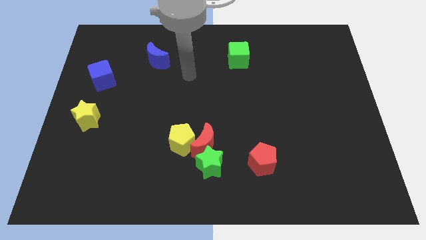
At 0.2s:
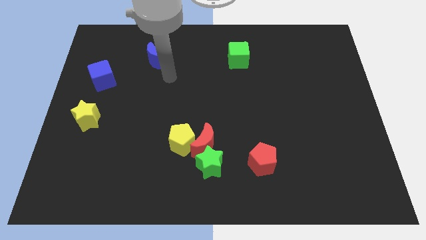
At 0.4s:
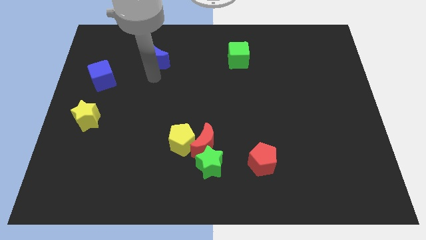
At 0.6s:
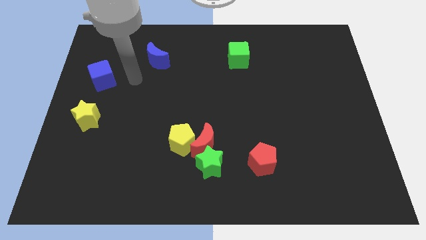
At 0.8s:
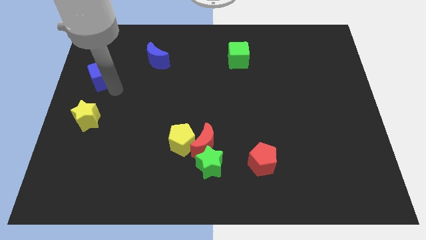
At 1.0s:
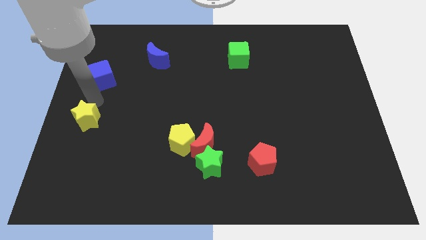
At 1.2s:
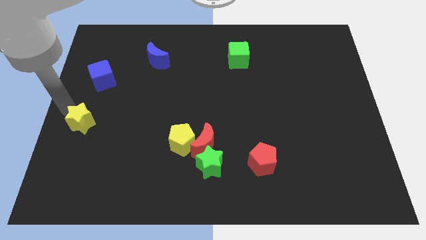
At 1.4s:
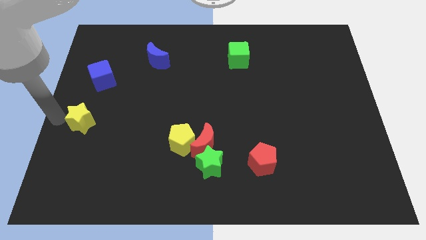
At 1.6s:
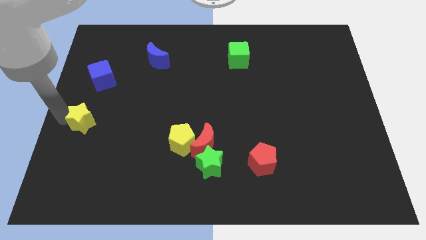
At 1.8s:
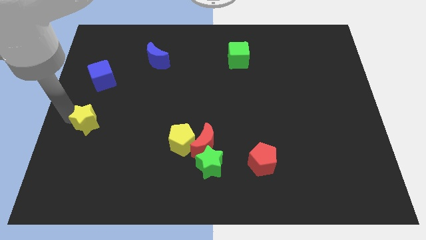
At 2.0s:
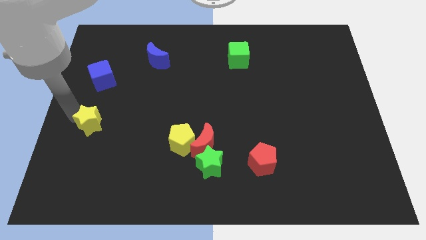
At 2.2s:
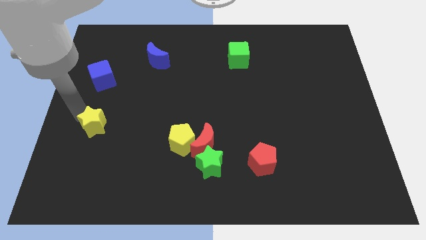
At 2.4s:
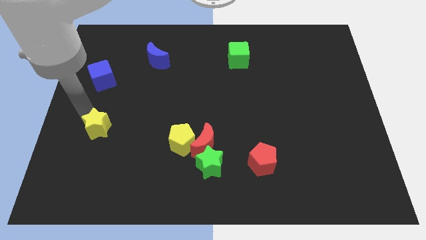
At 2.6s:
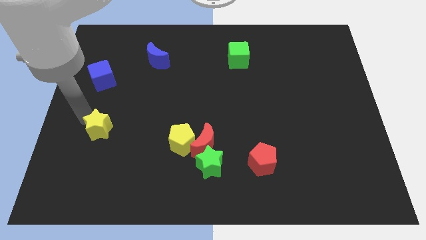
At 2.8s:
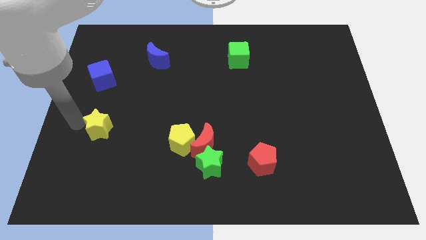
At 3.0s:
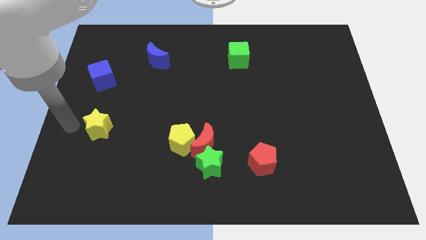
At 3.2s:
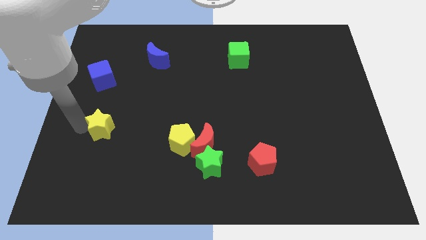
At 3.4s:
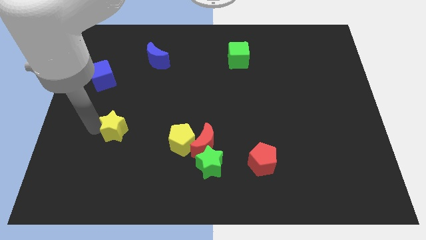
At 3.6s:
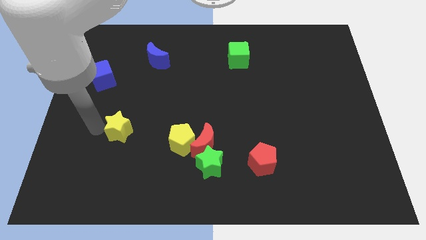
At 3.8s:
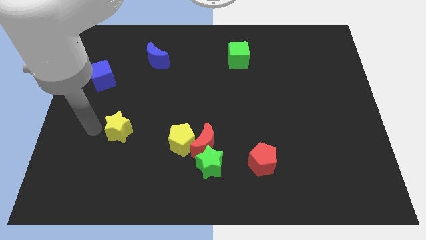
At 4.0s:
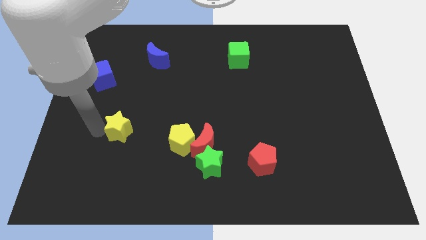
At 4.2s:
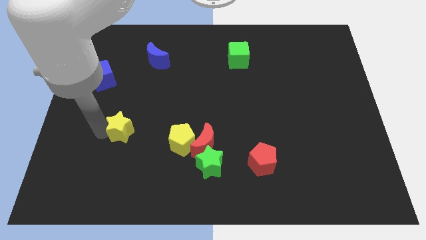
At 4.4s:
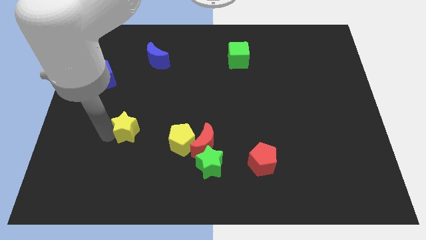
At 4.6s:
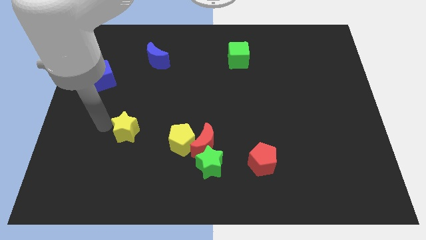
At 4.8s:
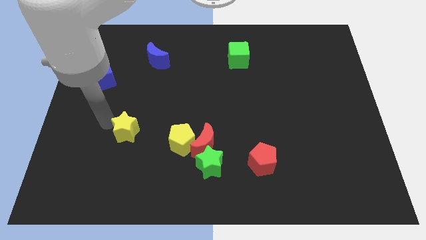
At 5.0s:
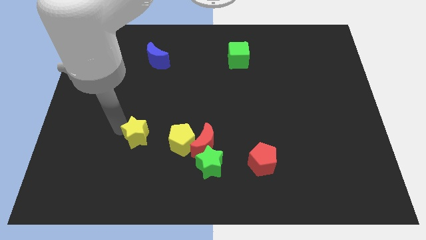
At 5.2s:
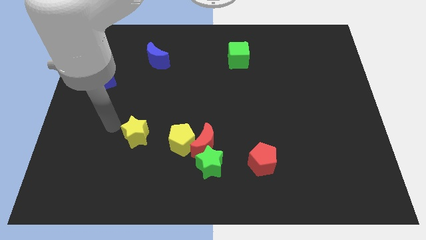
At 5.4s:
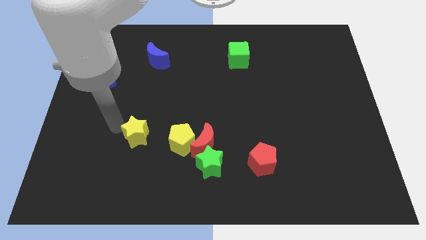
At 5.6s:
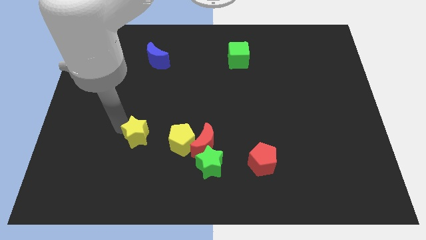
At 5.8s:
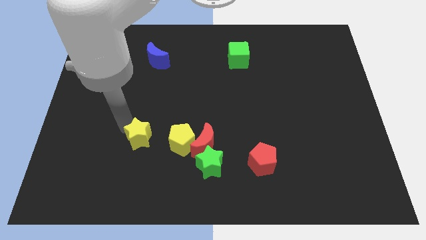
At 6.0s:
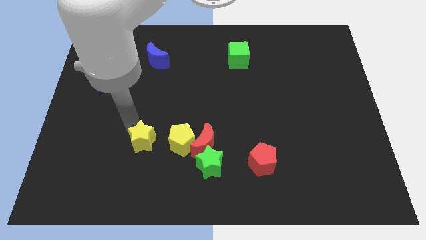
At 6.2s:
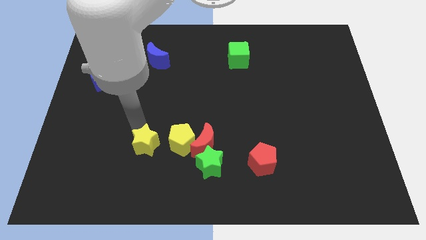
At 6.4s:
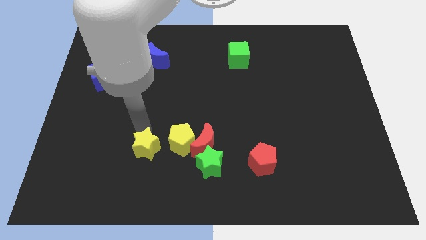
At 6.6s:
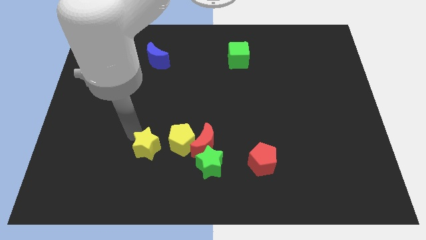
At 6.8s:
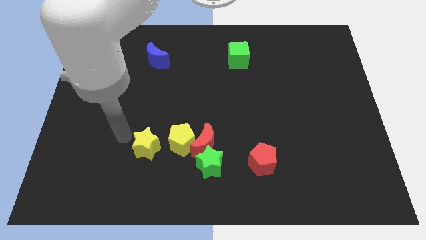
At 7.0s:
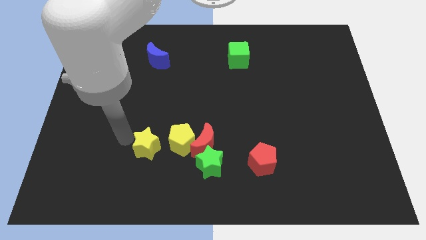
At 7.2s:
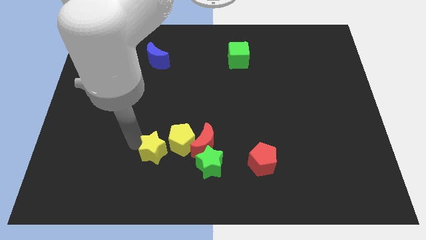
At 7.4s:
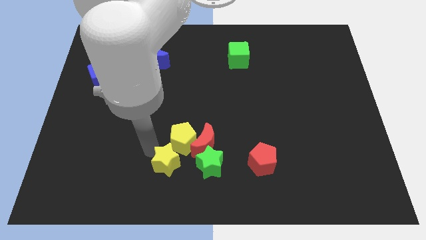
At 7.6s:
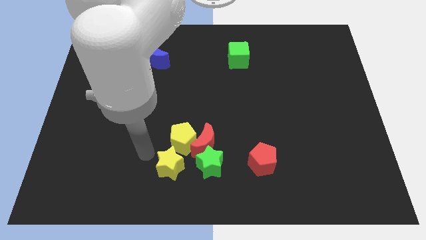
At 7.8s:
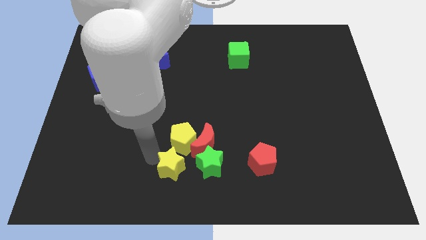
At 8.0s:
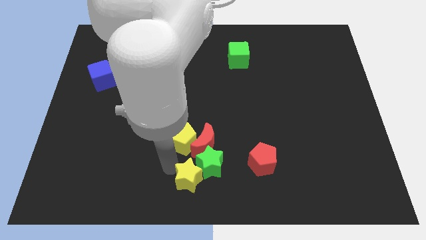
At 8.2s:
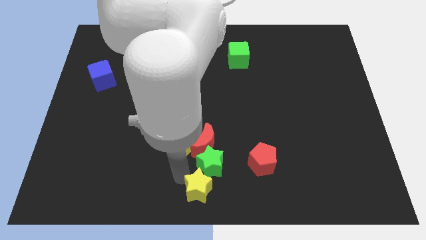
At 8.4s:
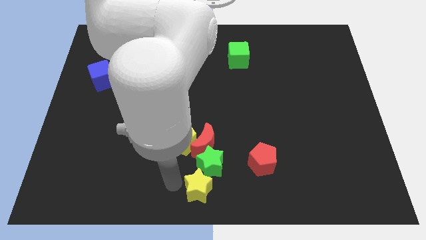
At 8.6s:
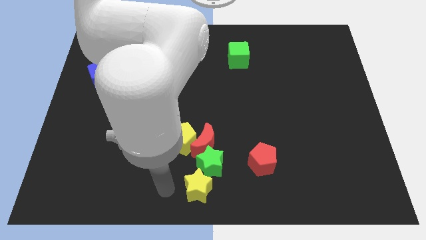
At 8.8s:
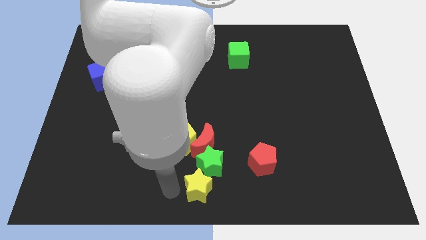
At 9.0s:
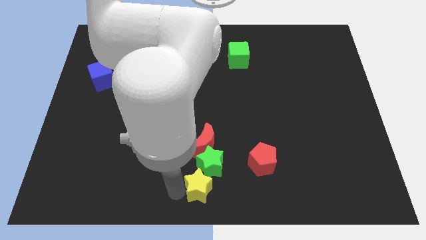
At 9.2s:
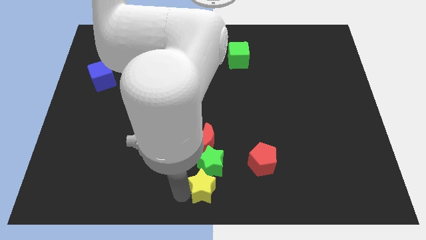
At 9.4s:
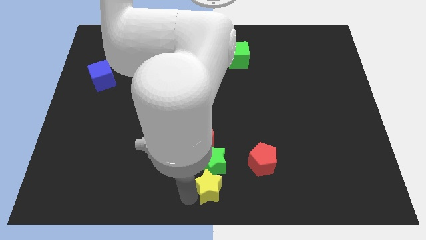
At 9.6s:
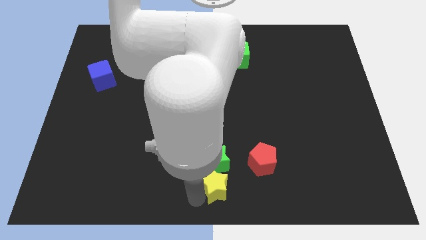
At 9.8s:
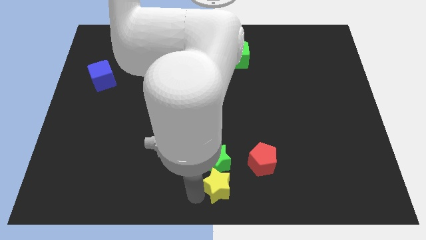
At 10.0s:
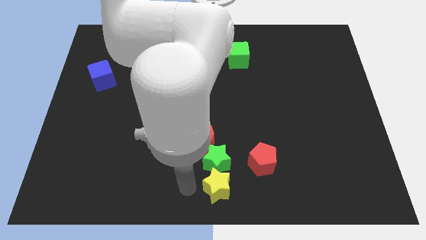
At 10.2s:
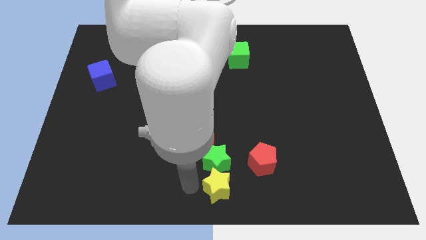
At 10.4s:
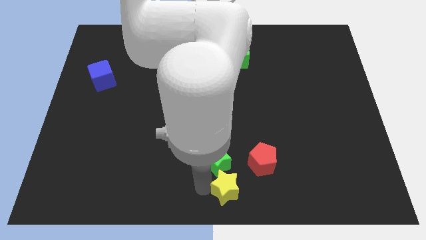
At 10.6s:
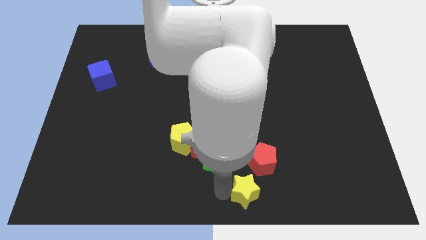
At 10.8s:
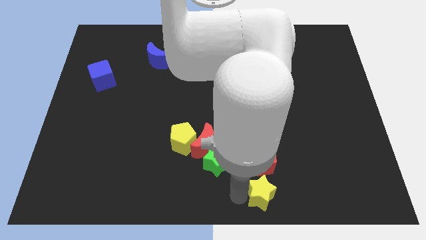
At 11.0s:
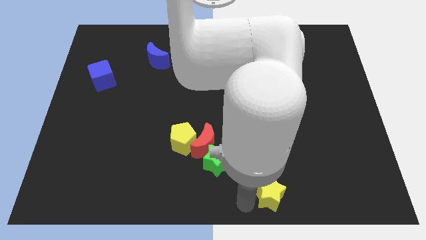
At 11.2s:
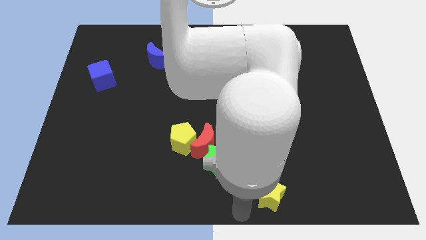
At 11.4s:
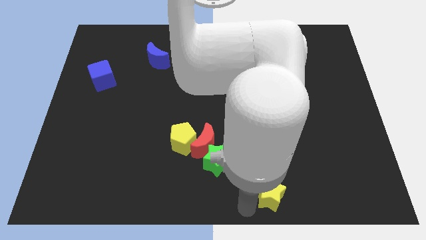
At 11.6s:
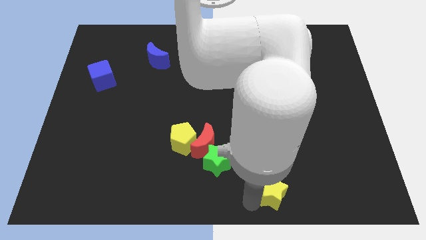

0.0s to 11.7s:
push the yellow star to the bottom right of the red pentagon

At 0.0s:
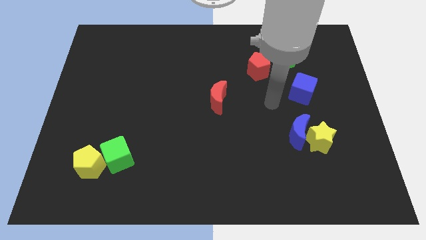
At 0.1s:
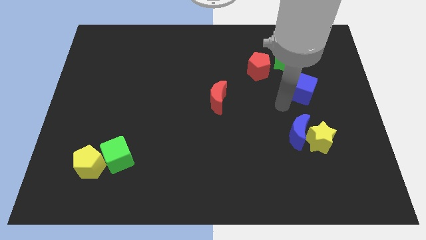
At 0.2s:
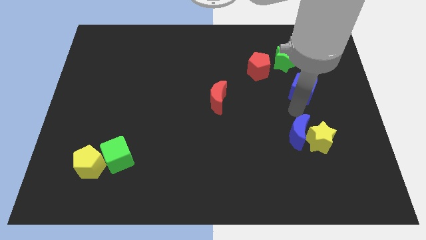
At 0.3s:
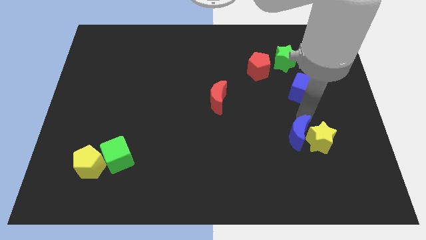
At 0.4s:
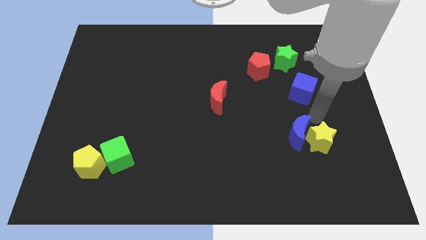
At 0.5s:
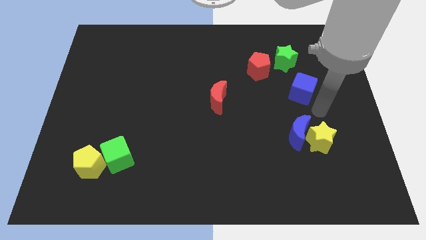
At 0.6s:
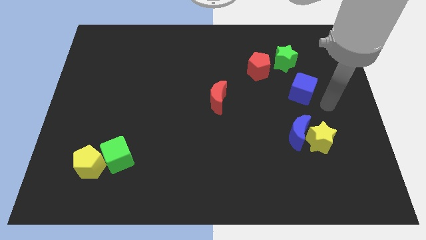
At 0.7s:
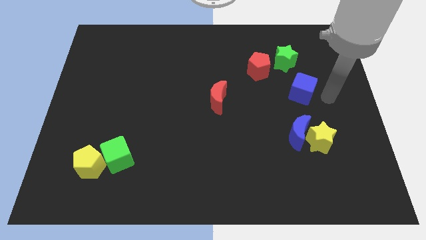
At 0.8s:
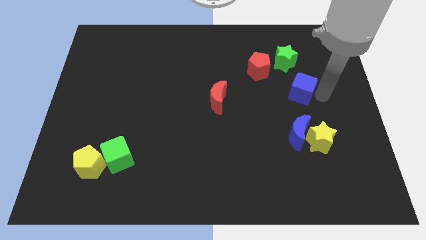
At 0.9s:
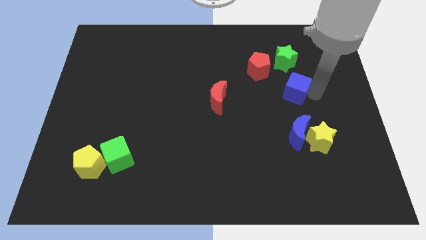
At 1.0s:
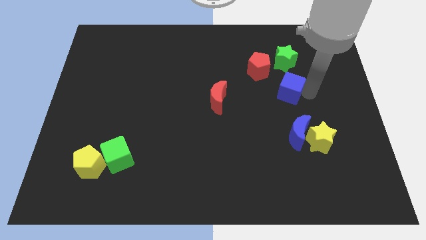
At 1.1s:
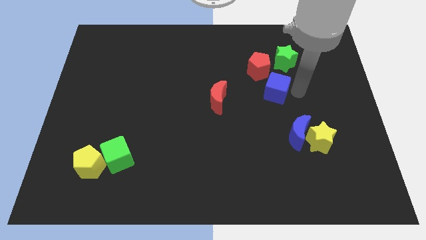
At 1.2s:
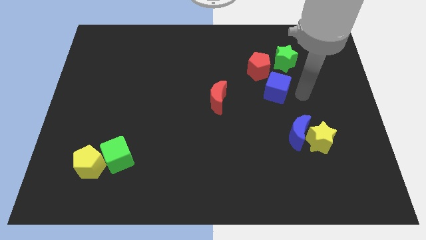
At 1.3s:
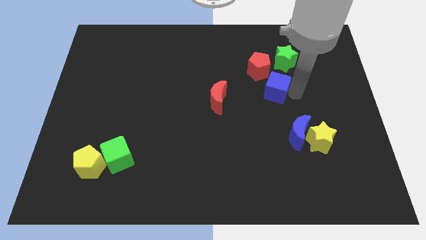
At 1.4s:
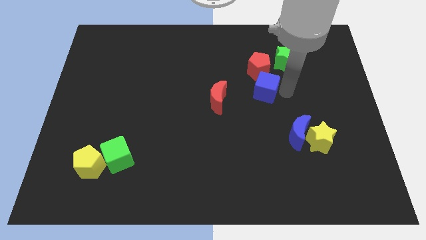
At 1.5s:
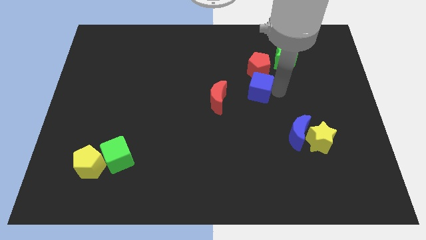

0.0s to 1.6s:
push the blue cube diagonally down and to the left of the red pentagon
